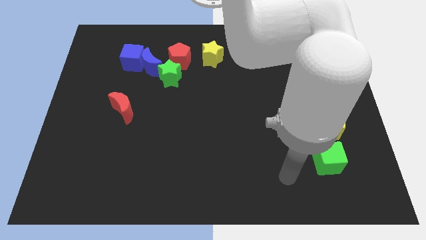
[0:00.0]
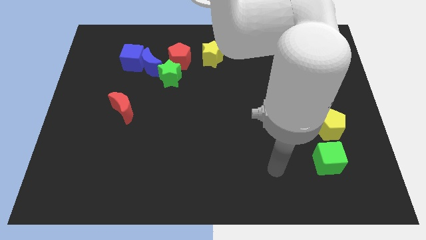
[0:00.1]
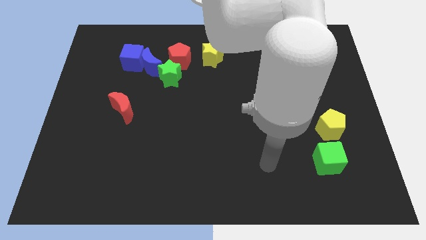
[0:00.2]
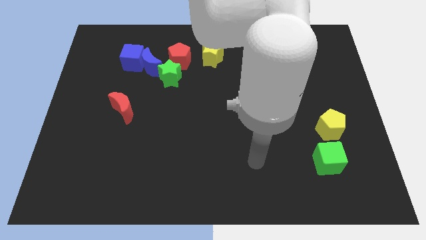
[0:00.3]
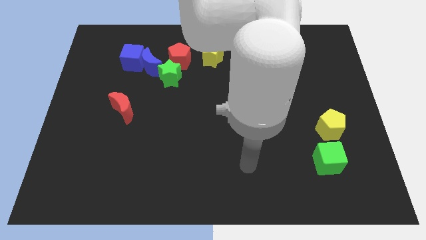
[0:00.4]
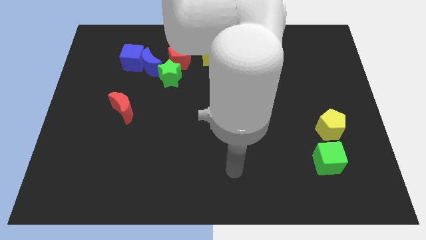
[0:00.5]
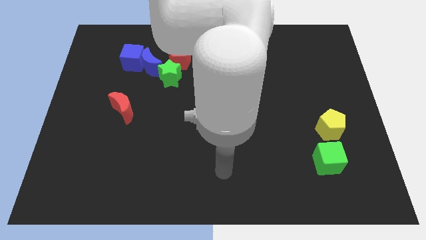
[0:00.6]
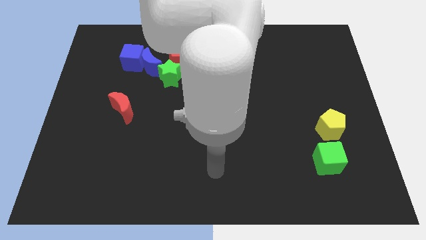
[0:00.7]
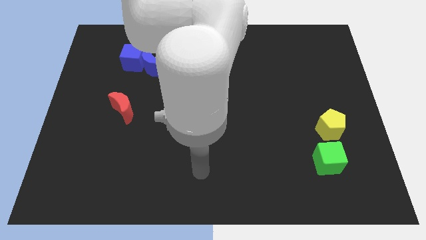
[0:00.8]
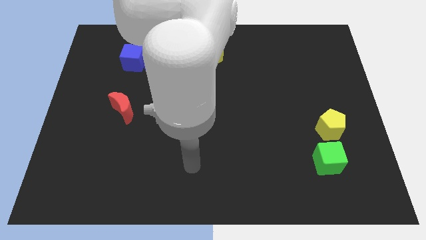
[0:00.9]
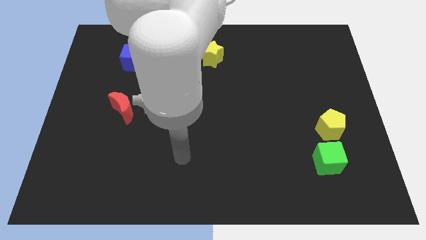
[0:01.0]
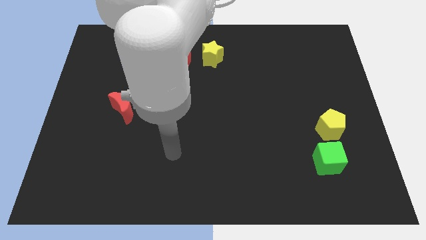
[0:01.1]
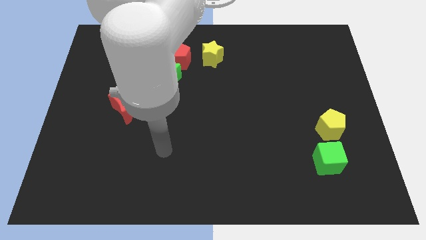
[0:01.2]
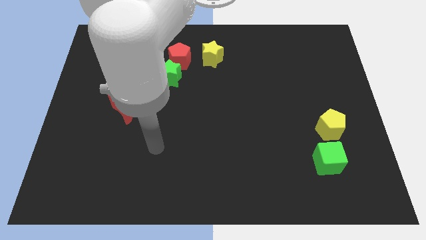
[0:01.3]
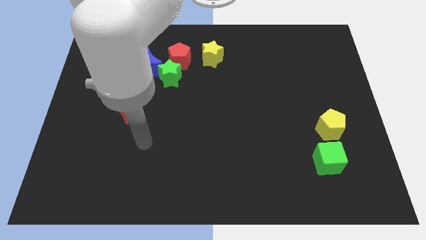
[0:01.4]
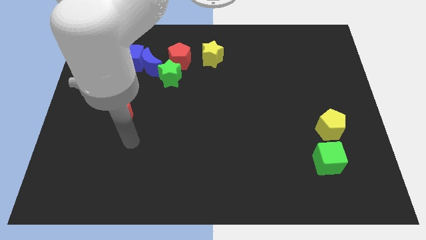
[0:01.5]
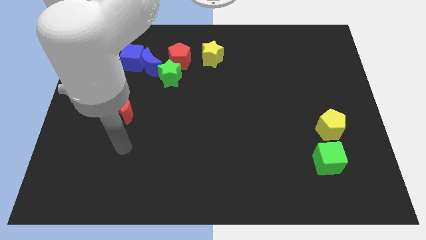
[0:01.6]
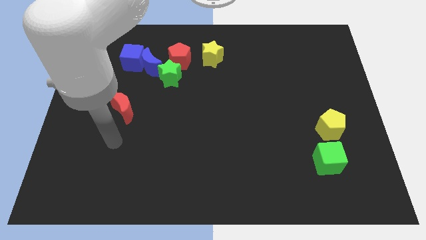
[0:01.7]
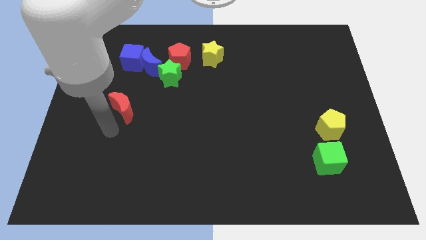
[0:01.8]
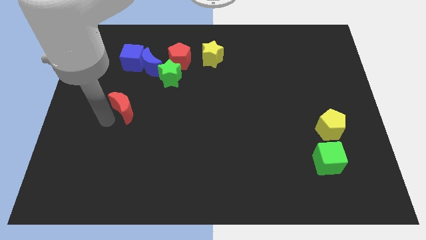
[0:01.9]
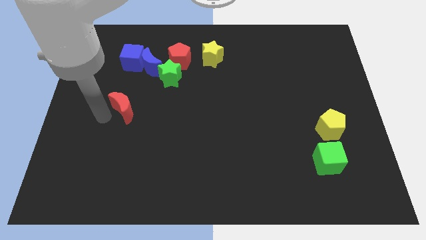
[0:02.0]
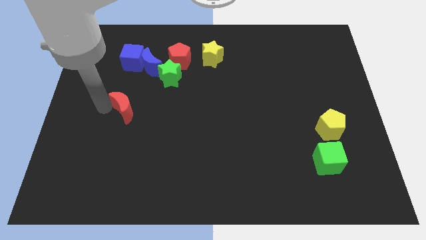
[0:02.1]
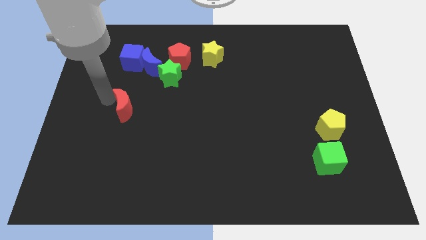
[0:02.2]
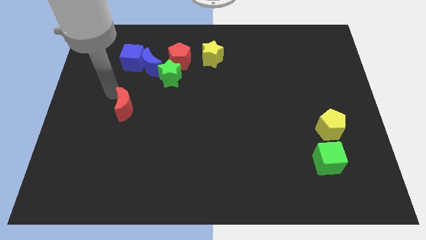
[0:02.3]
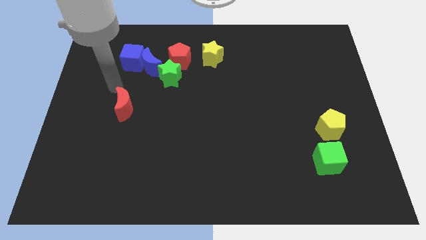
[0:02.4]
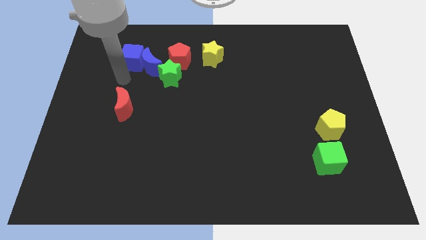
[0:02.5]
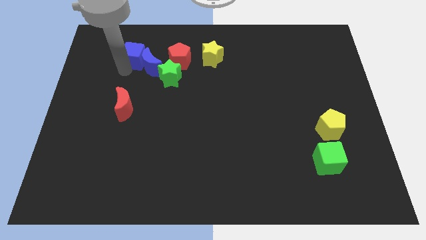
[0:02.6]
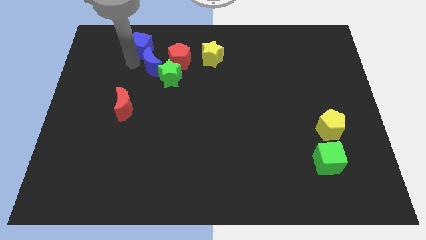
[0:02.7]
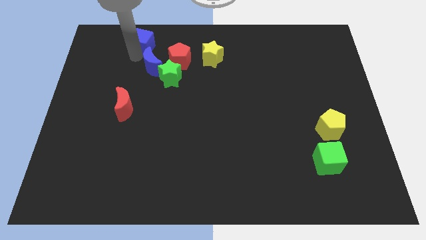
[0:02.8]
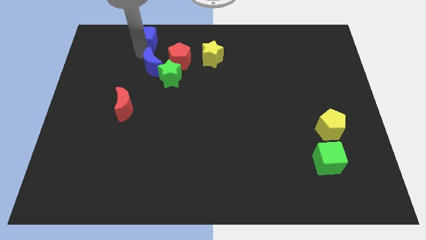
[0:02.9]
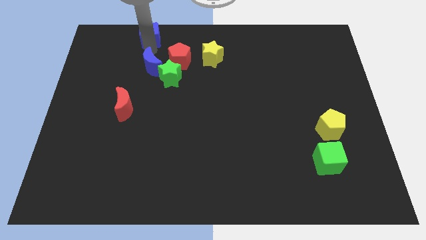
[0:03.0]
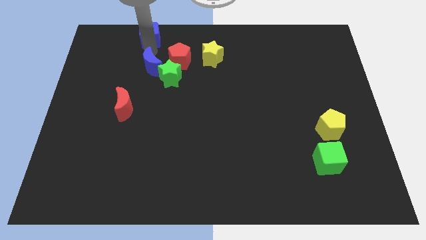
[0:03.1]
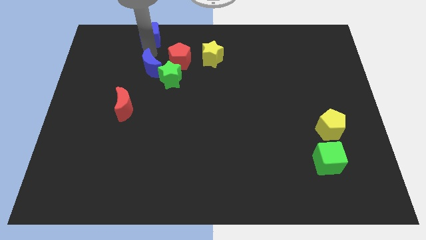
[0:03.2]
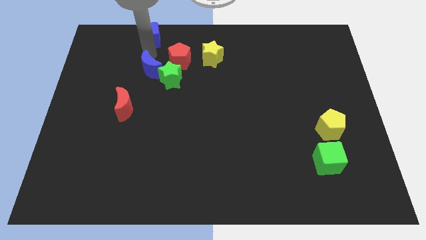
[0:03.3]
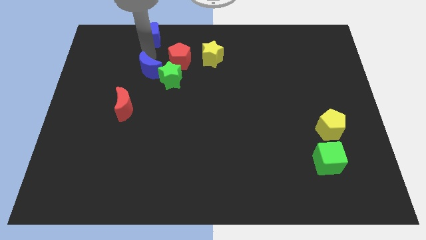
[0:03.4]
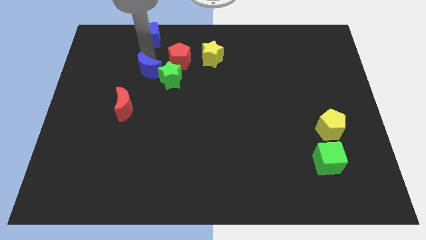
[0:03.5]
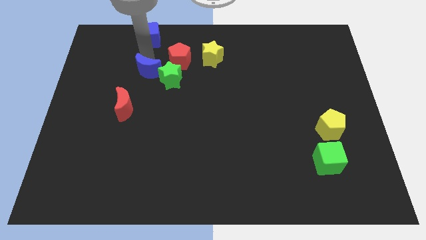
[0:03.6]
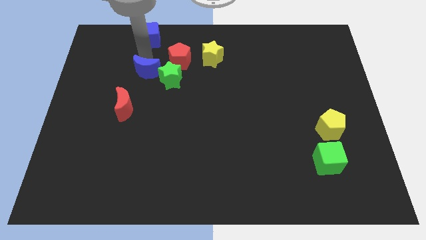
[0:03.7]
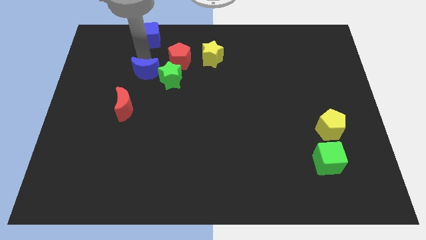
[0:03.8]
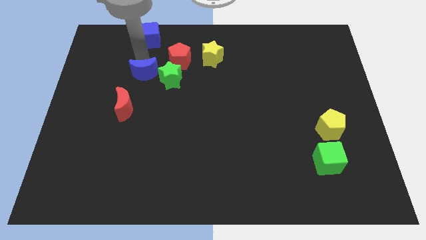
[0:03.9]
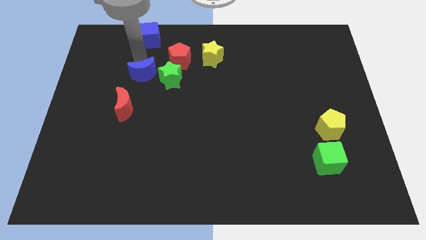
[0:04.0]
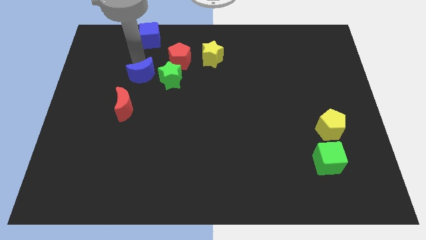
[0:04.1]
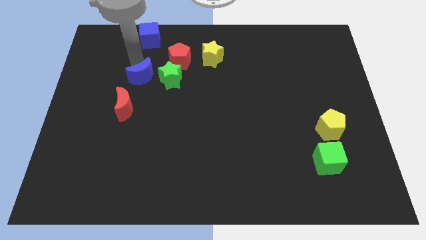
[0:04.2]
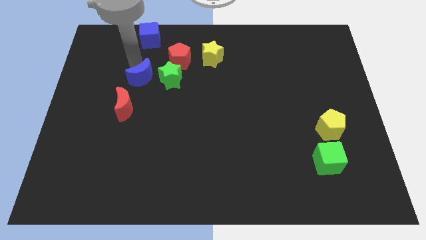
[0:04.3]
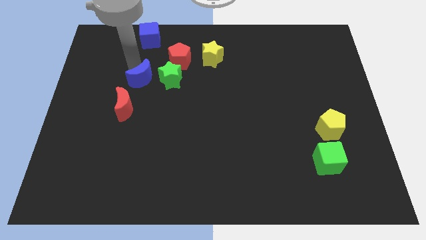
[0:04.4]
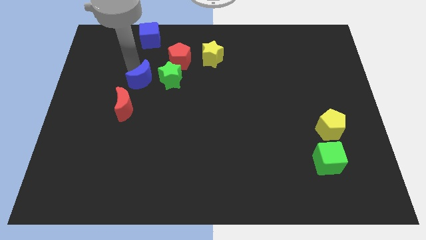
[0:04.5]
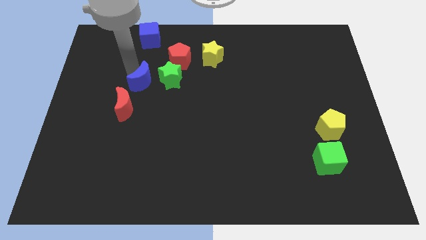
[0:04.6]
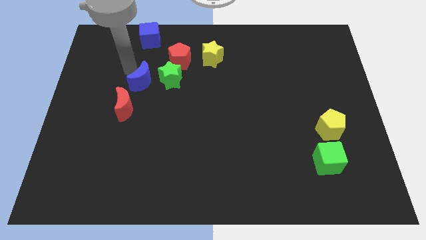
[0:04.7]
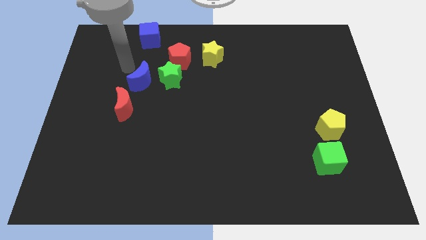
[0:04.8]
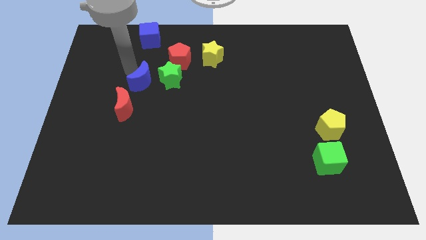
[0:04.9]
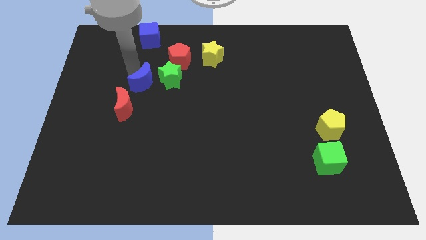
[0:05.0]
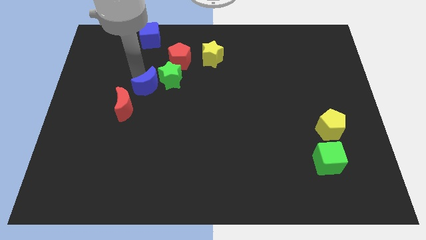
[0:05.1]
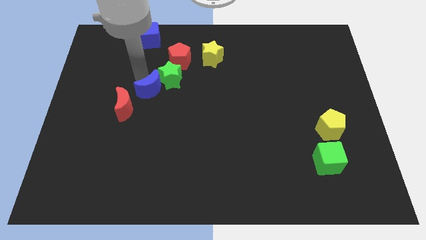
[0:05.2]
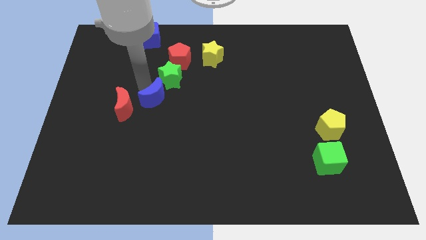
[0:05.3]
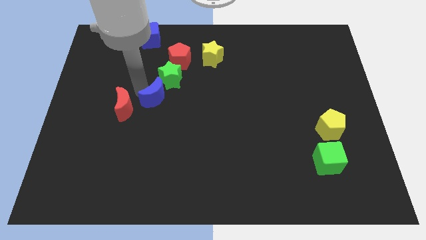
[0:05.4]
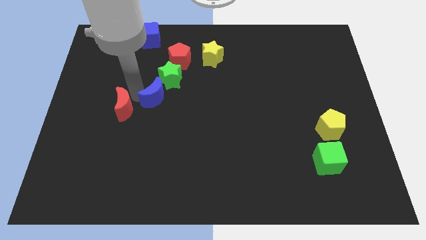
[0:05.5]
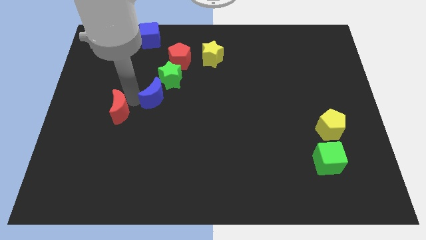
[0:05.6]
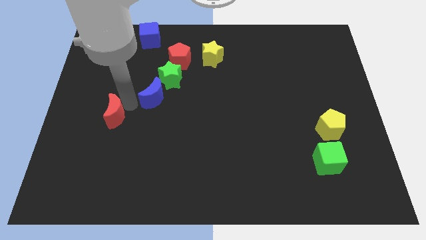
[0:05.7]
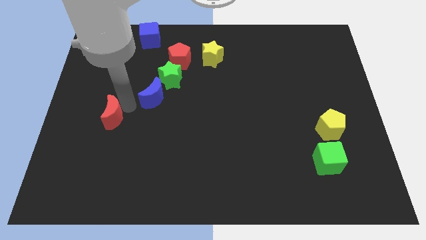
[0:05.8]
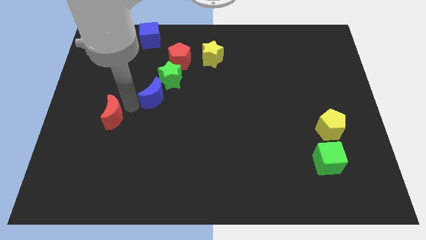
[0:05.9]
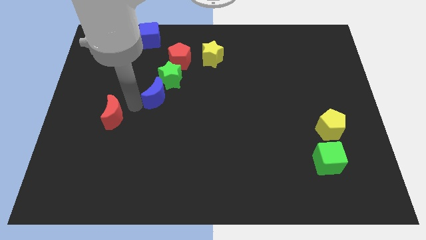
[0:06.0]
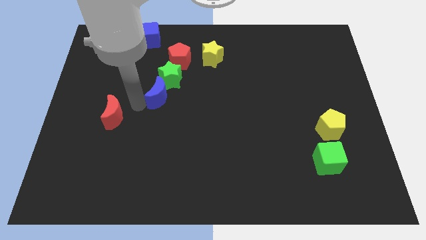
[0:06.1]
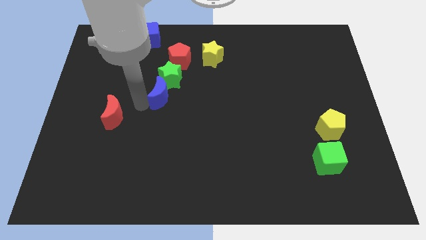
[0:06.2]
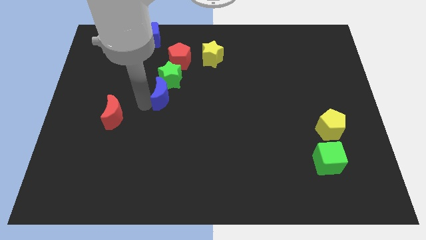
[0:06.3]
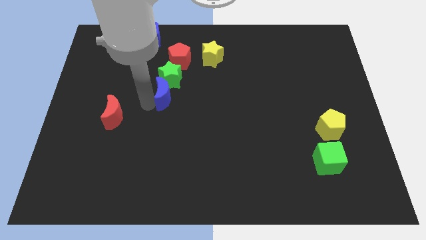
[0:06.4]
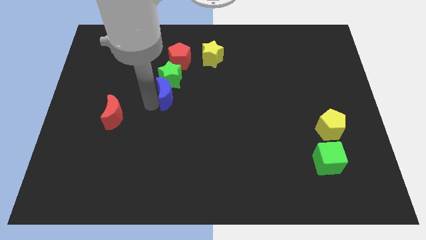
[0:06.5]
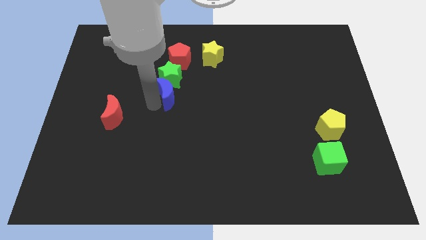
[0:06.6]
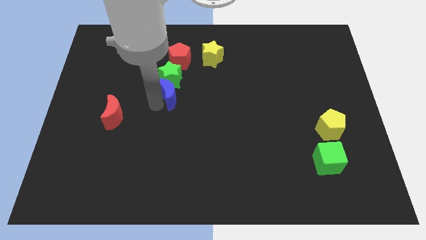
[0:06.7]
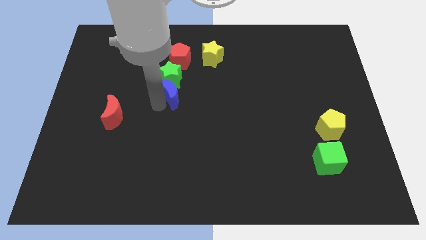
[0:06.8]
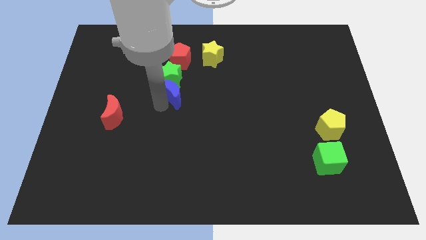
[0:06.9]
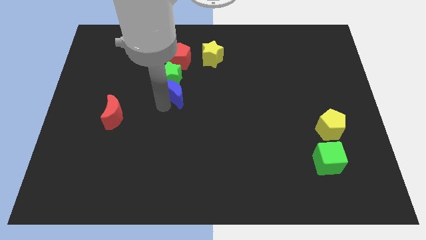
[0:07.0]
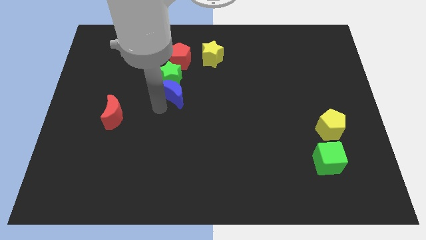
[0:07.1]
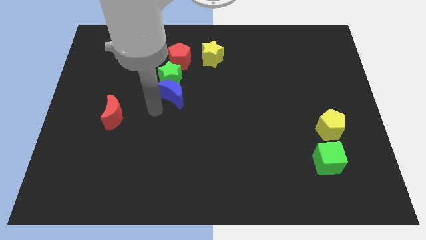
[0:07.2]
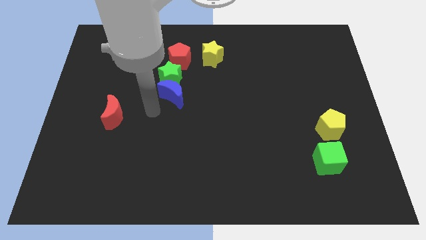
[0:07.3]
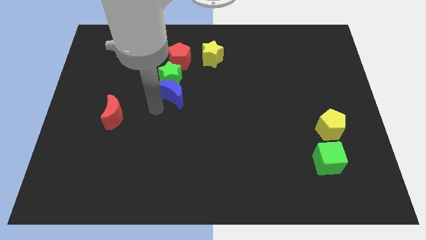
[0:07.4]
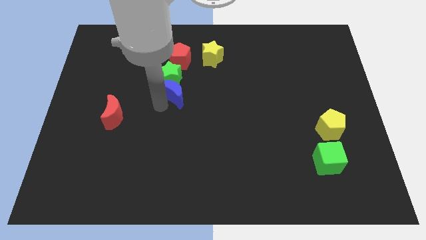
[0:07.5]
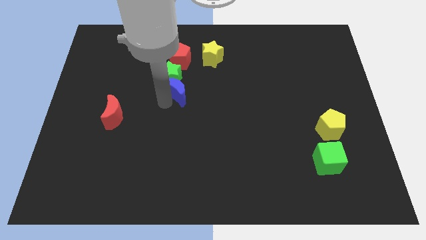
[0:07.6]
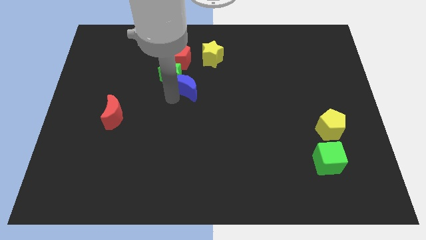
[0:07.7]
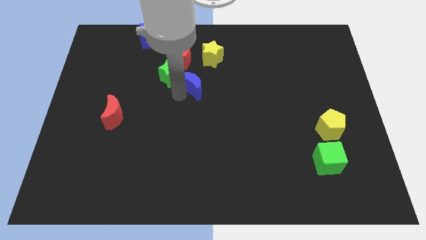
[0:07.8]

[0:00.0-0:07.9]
move the blue moon to the bottom right of the red pentagon
